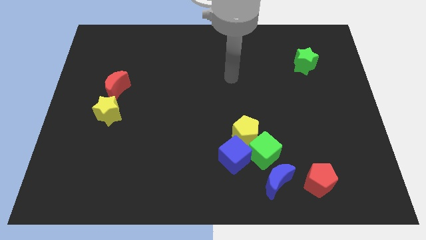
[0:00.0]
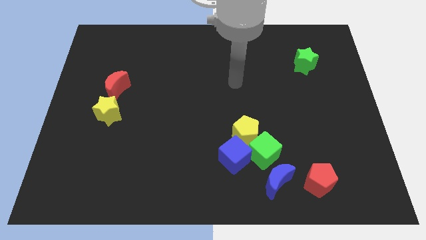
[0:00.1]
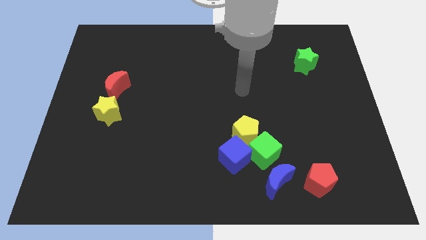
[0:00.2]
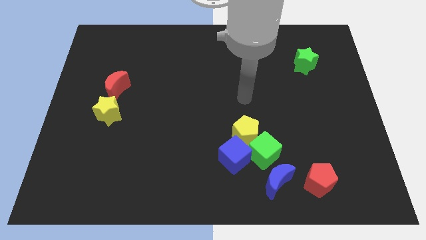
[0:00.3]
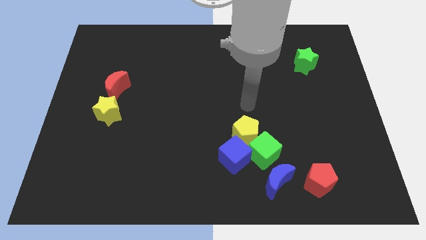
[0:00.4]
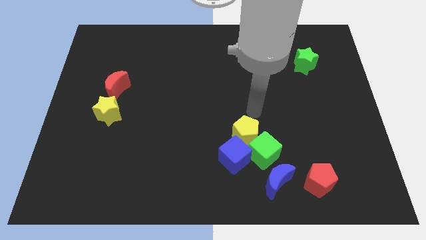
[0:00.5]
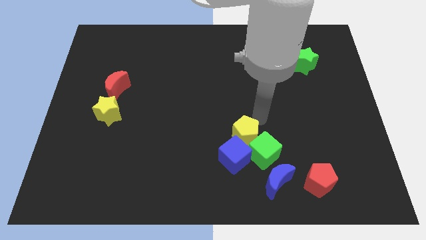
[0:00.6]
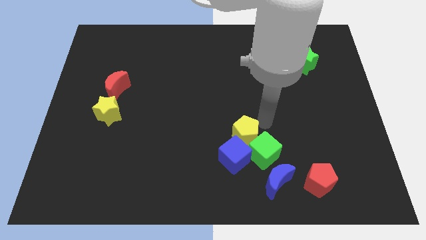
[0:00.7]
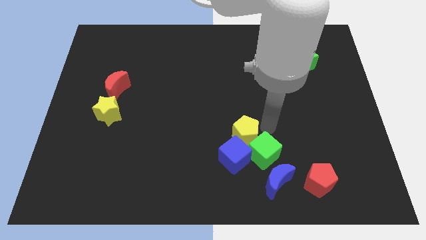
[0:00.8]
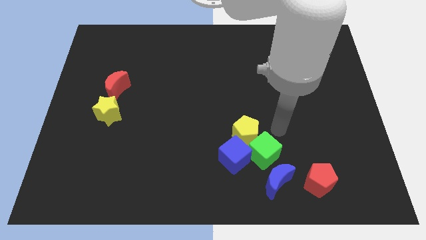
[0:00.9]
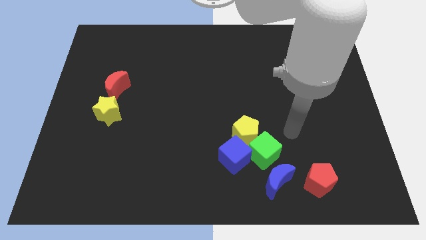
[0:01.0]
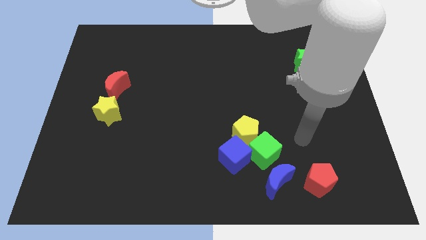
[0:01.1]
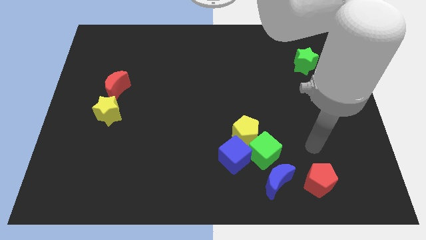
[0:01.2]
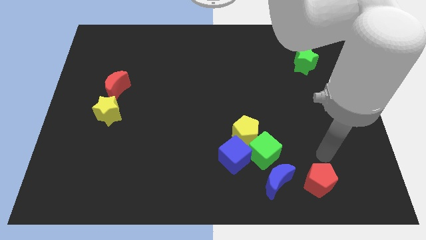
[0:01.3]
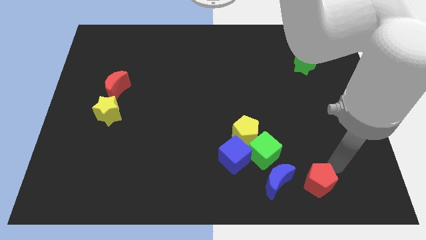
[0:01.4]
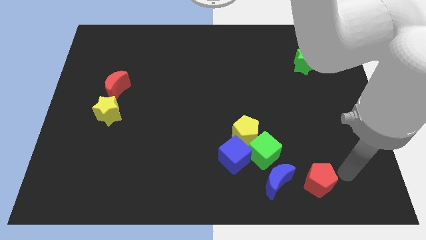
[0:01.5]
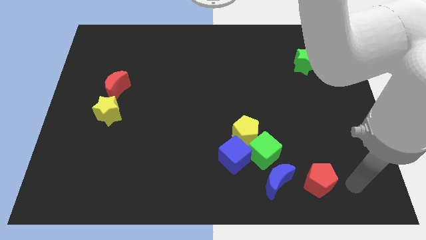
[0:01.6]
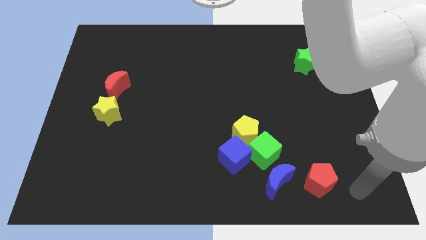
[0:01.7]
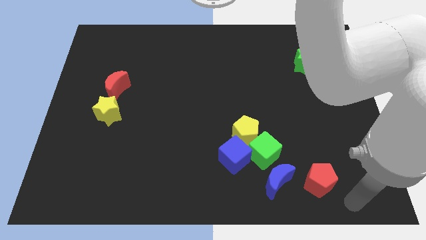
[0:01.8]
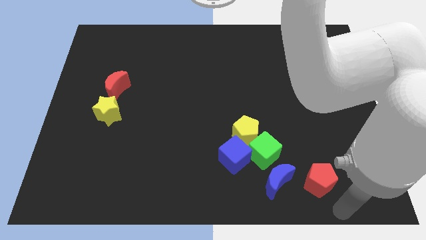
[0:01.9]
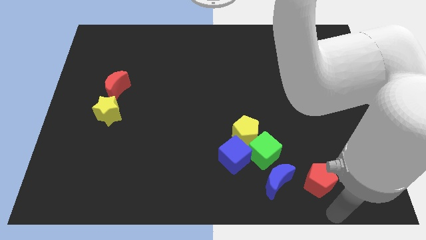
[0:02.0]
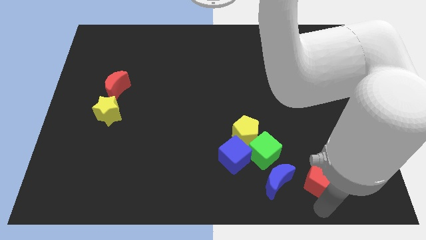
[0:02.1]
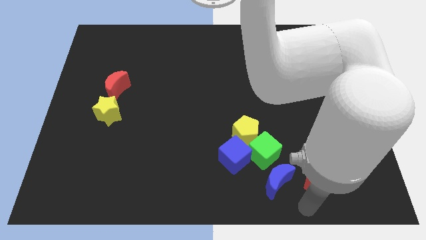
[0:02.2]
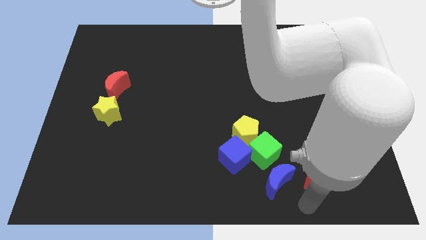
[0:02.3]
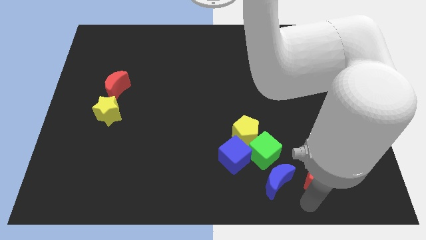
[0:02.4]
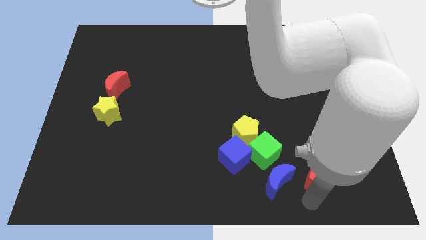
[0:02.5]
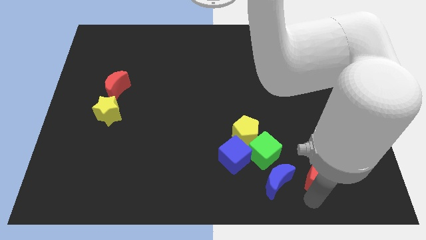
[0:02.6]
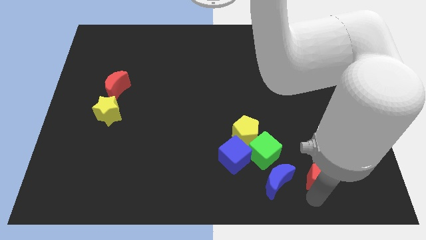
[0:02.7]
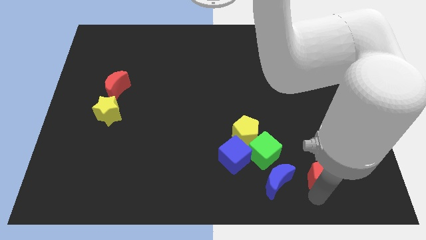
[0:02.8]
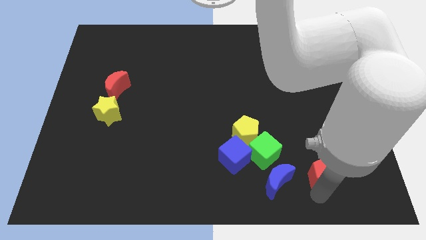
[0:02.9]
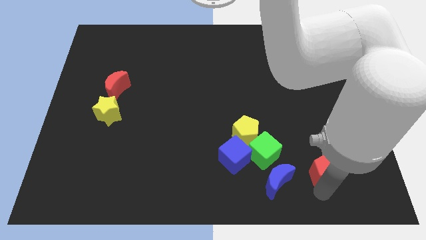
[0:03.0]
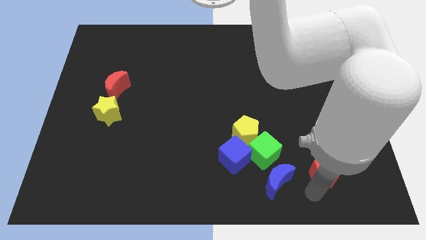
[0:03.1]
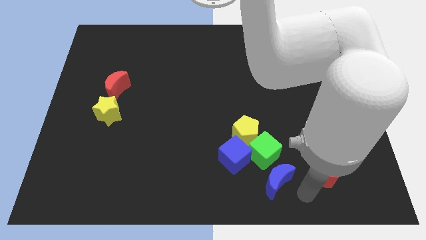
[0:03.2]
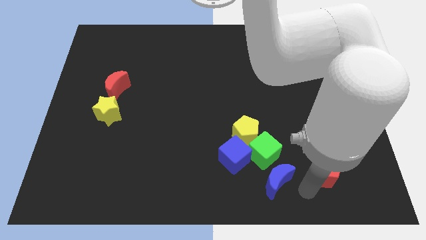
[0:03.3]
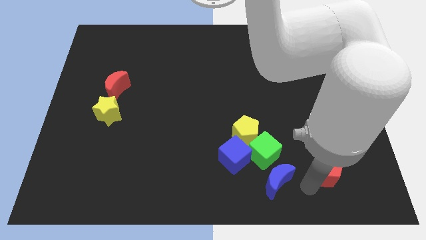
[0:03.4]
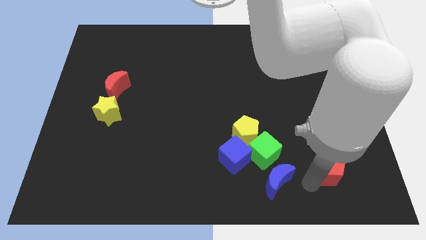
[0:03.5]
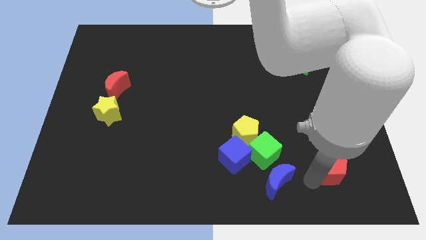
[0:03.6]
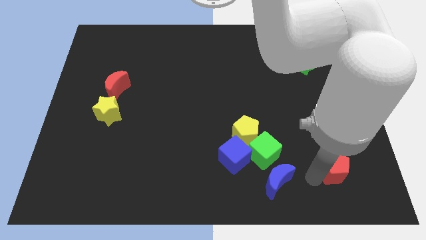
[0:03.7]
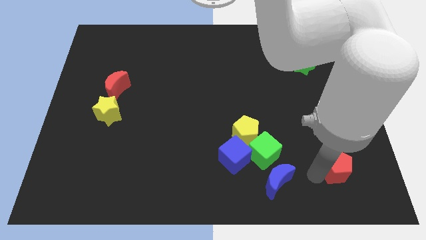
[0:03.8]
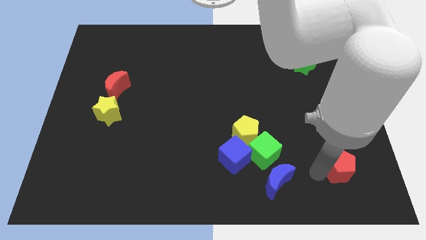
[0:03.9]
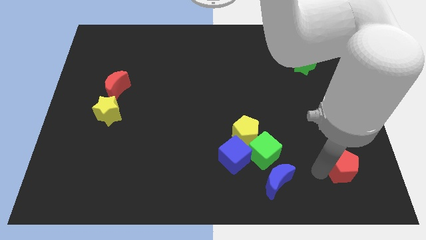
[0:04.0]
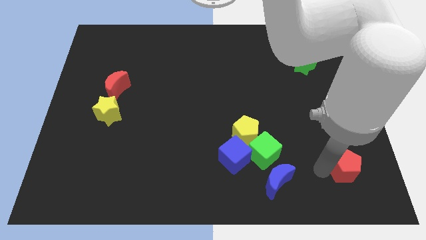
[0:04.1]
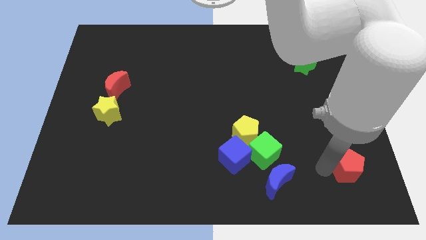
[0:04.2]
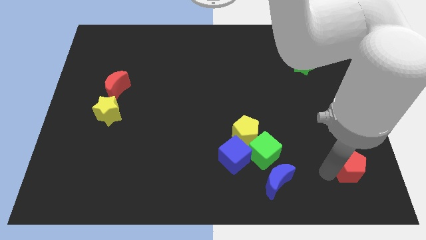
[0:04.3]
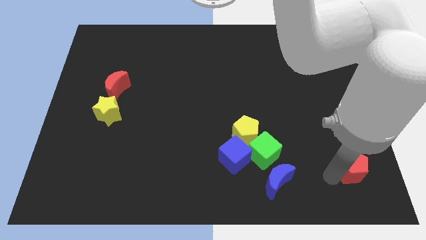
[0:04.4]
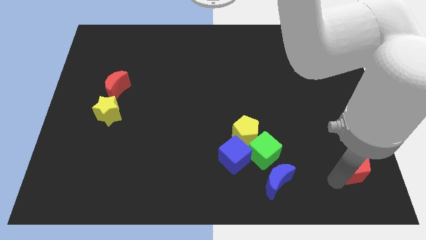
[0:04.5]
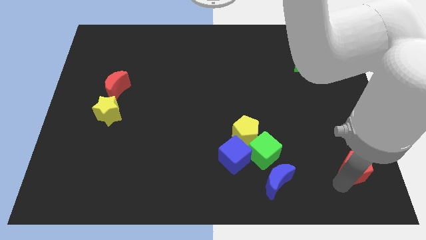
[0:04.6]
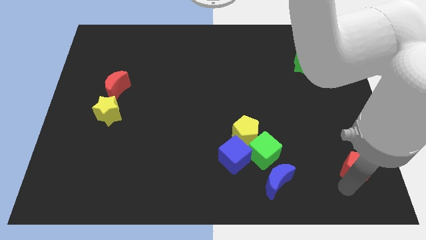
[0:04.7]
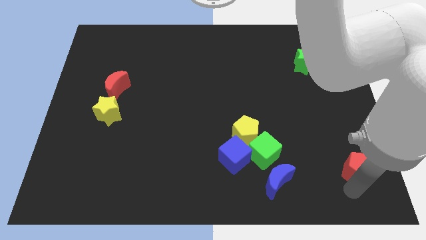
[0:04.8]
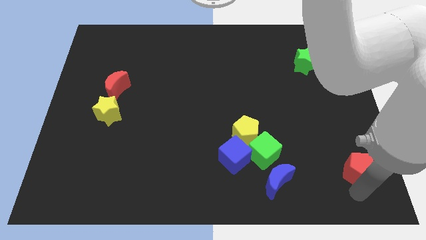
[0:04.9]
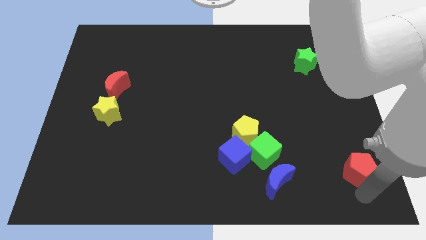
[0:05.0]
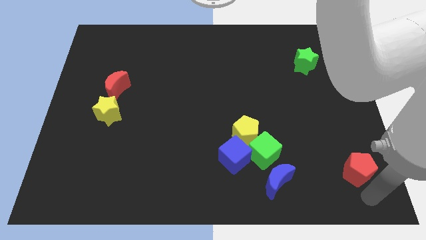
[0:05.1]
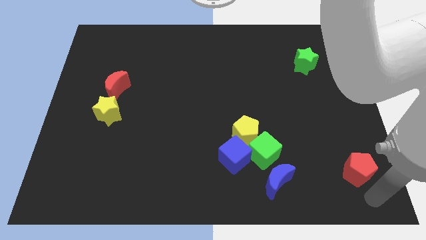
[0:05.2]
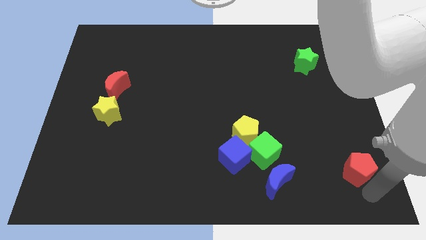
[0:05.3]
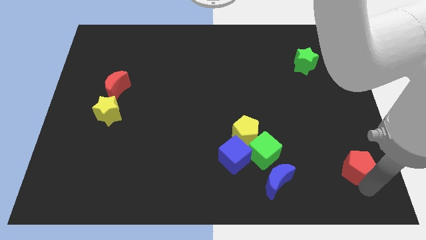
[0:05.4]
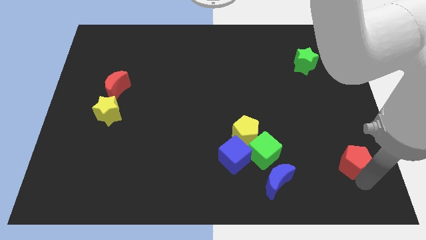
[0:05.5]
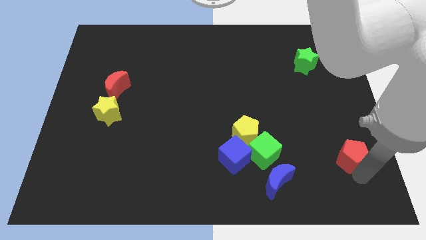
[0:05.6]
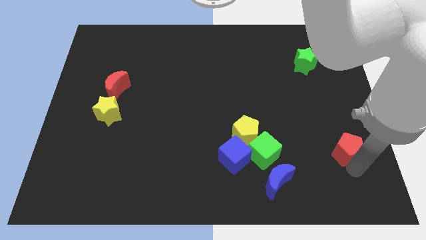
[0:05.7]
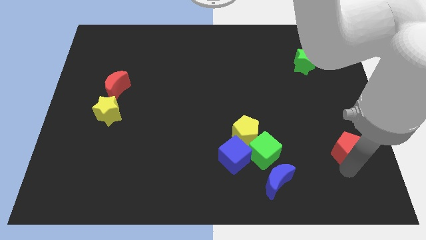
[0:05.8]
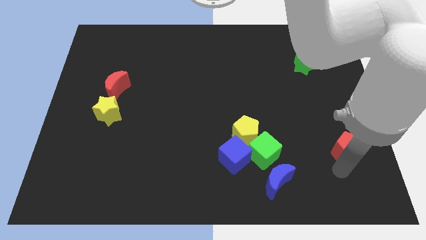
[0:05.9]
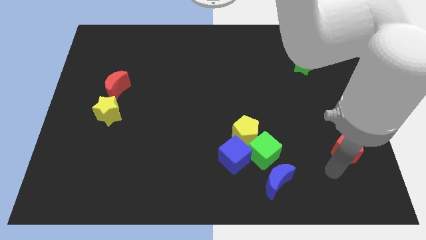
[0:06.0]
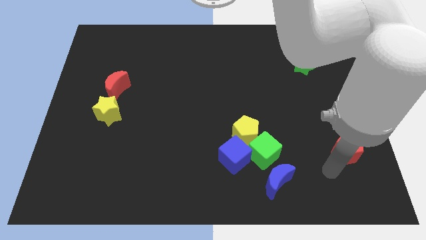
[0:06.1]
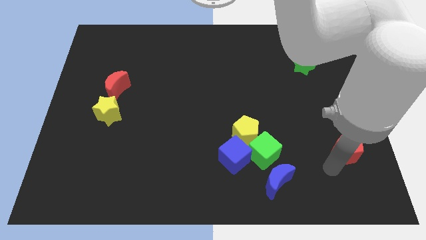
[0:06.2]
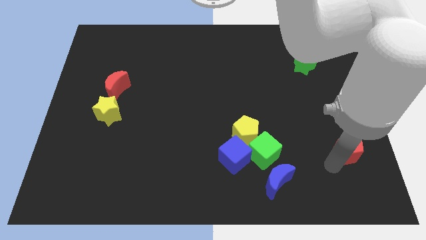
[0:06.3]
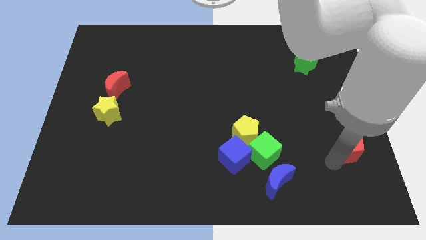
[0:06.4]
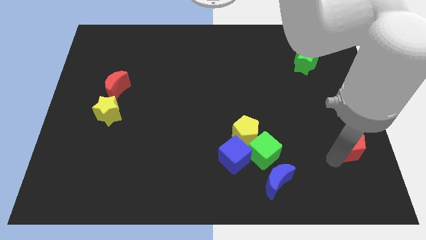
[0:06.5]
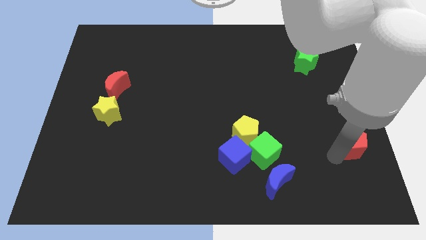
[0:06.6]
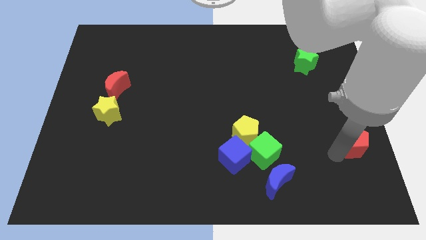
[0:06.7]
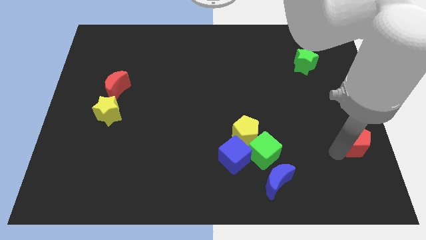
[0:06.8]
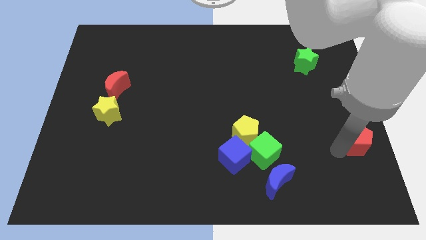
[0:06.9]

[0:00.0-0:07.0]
slide the red pentagon to the center right
